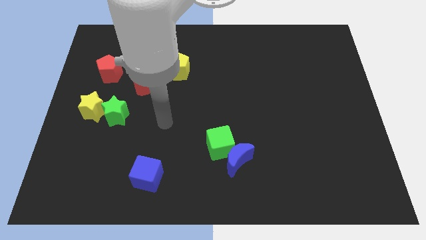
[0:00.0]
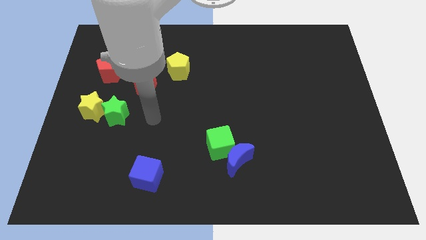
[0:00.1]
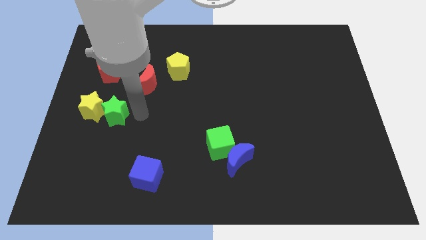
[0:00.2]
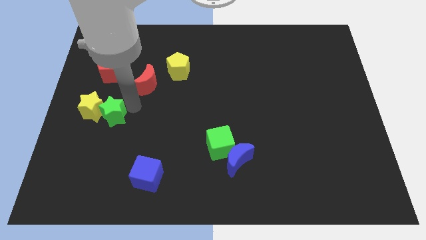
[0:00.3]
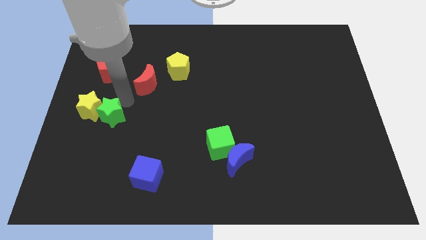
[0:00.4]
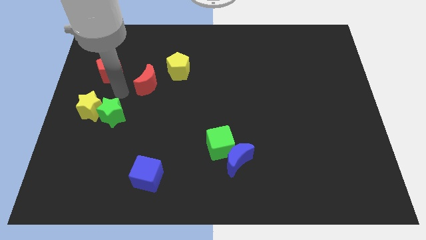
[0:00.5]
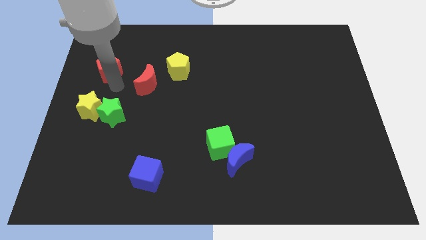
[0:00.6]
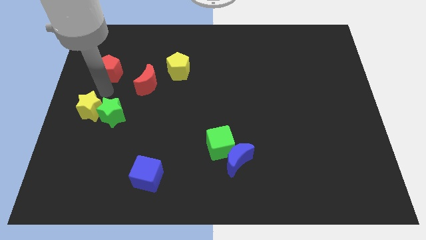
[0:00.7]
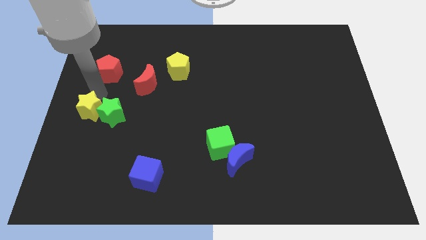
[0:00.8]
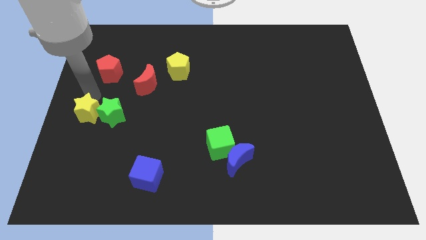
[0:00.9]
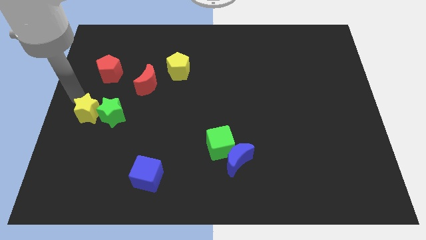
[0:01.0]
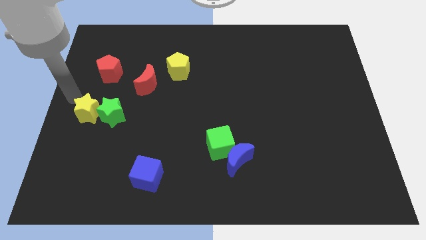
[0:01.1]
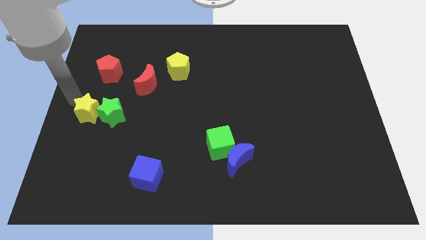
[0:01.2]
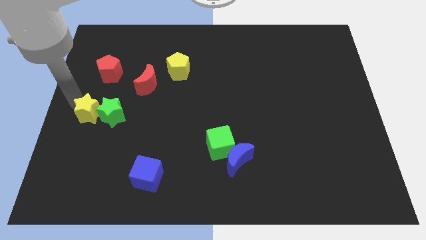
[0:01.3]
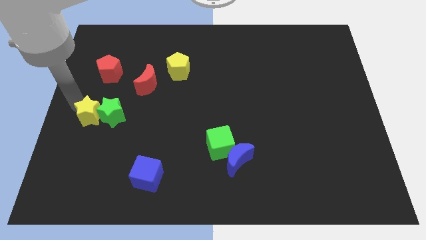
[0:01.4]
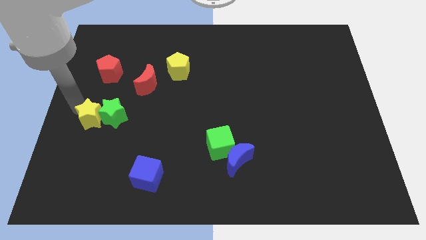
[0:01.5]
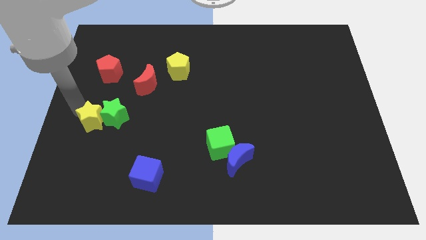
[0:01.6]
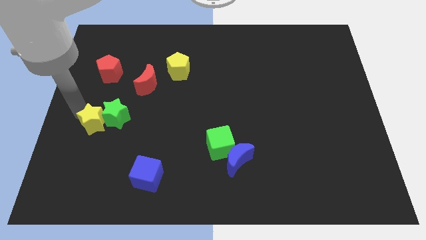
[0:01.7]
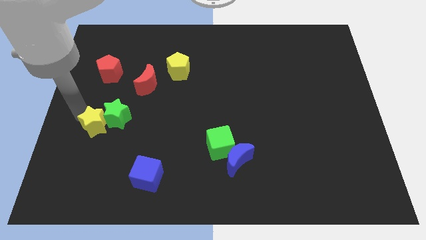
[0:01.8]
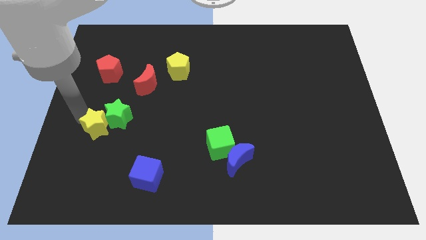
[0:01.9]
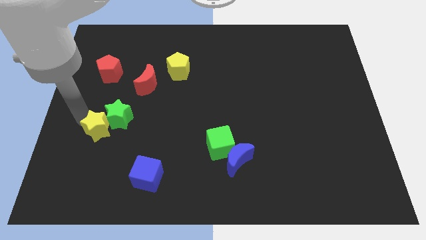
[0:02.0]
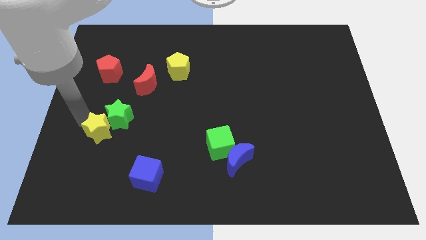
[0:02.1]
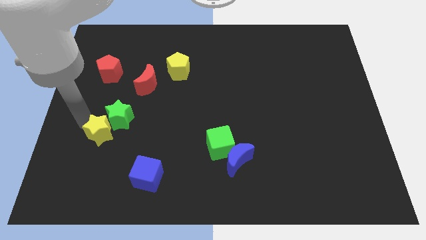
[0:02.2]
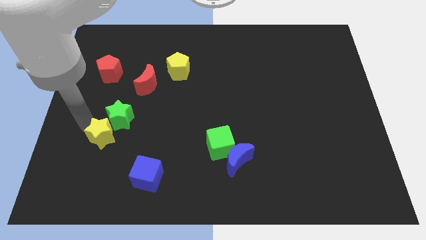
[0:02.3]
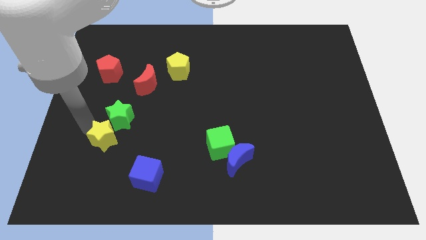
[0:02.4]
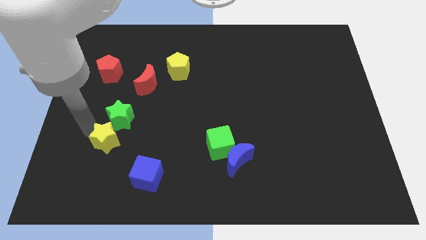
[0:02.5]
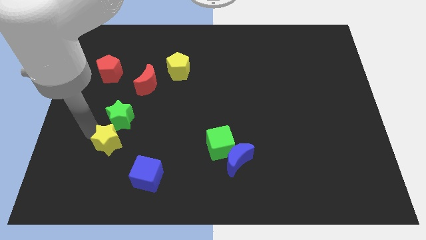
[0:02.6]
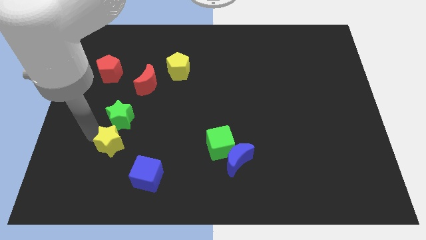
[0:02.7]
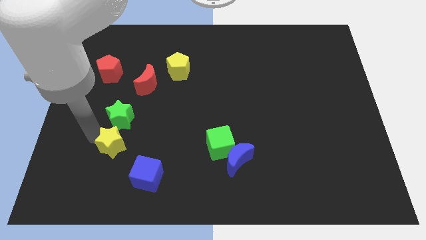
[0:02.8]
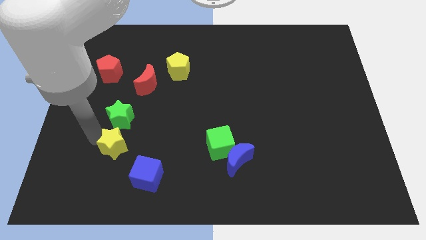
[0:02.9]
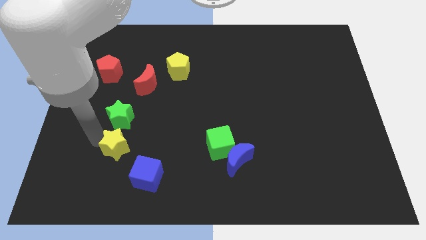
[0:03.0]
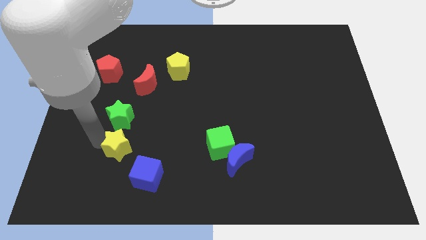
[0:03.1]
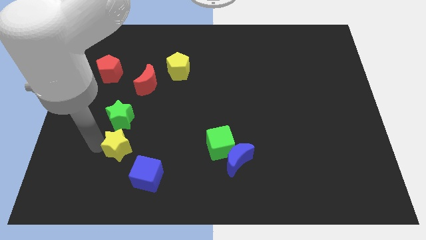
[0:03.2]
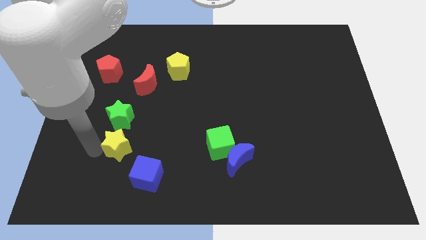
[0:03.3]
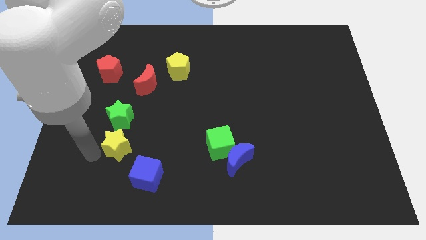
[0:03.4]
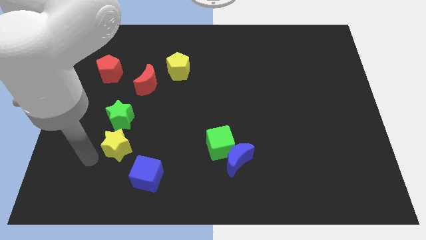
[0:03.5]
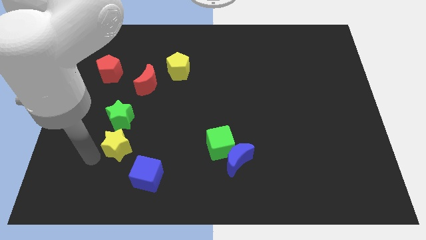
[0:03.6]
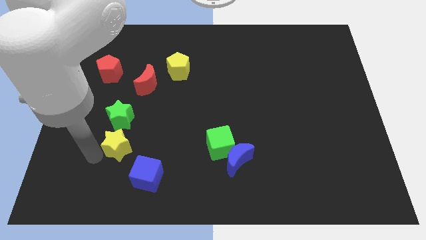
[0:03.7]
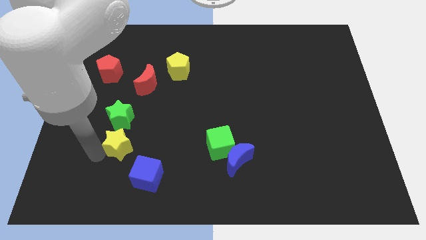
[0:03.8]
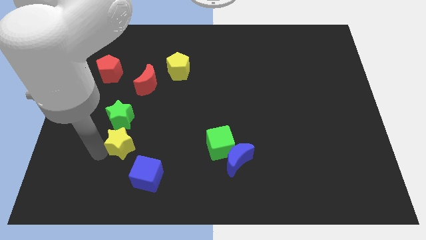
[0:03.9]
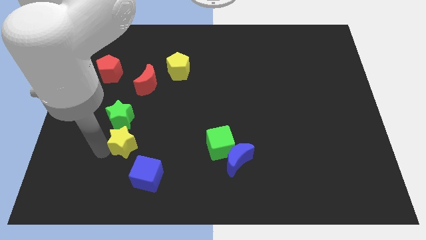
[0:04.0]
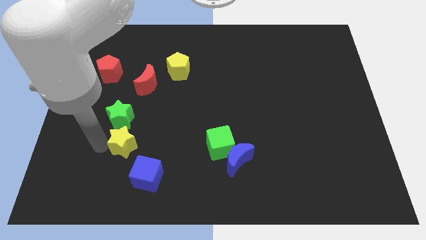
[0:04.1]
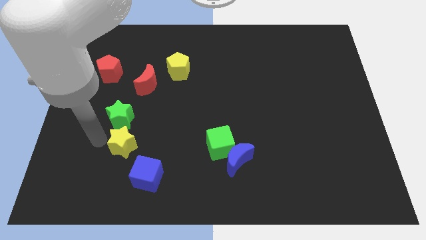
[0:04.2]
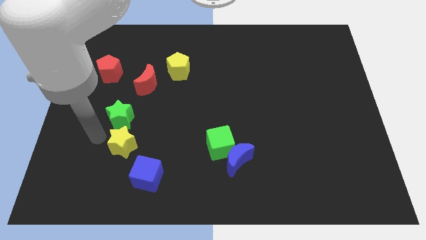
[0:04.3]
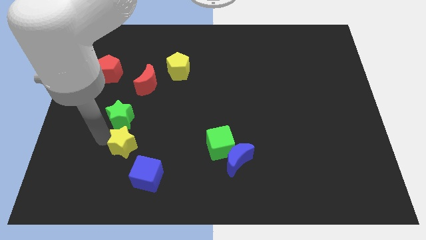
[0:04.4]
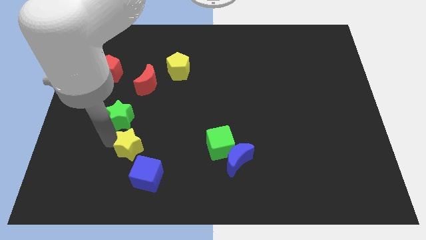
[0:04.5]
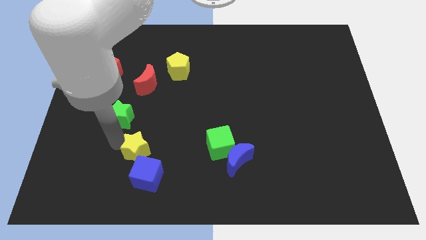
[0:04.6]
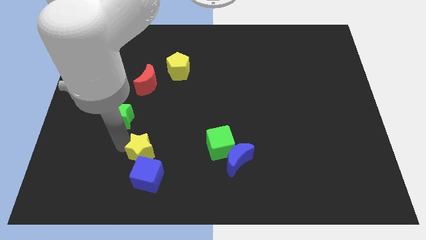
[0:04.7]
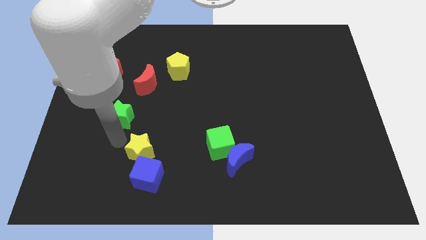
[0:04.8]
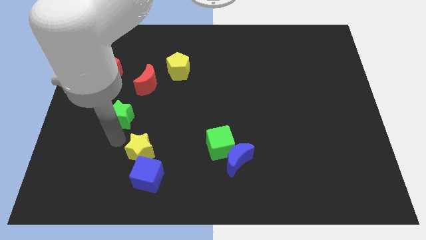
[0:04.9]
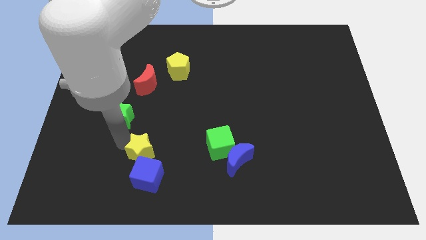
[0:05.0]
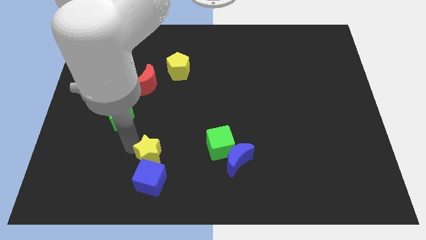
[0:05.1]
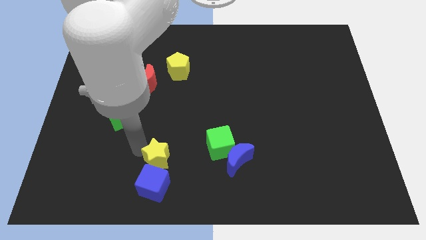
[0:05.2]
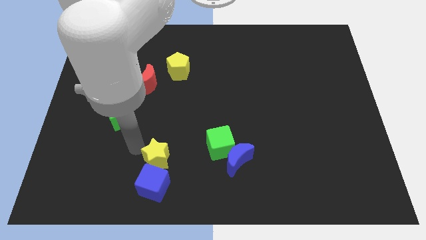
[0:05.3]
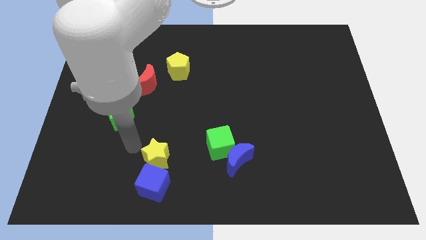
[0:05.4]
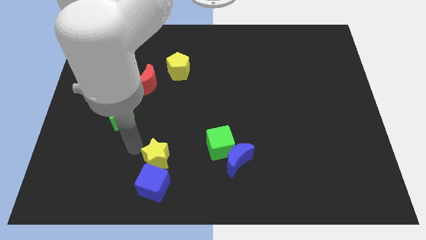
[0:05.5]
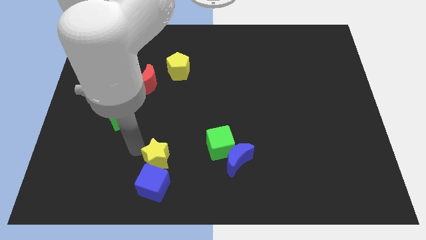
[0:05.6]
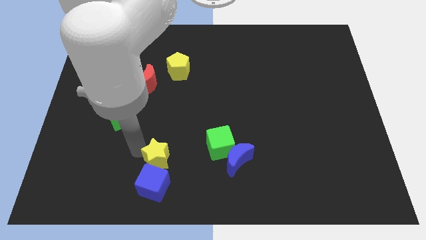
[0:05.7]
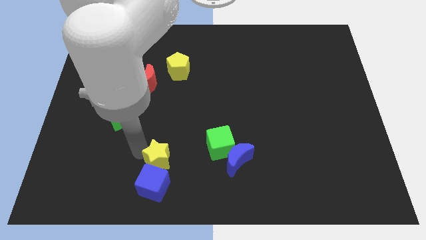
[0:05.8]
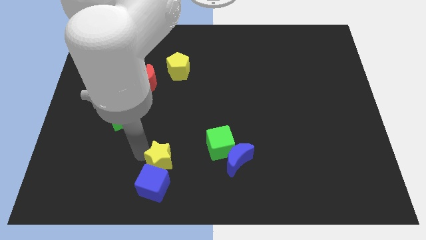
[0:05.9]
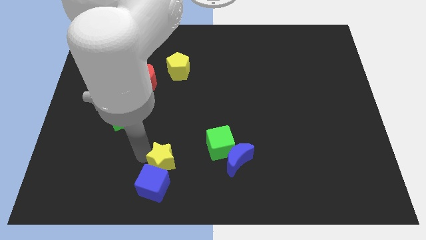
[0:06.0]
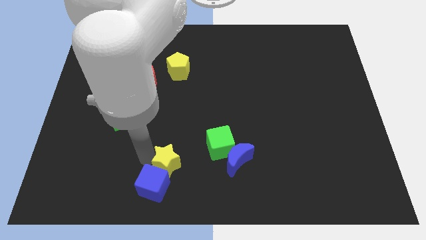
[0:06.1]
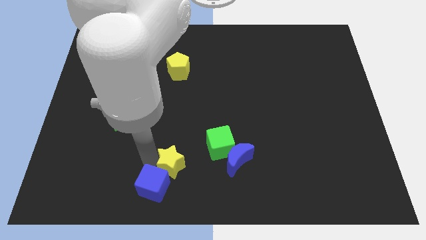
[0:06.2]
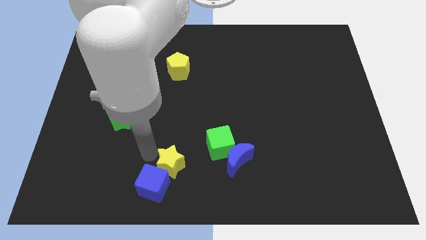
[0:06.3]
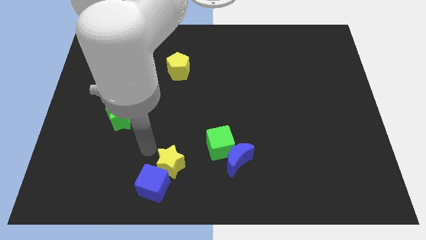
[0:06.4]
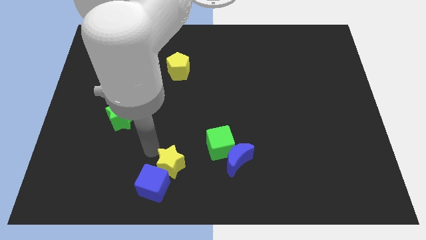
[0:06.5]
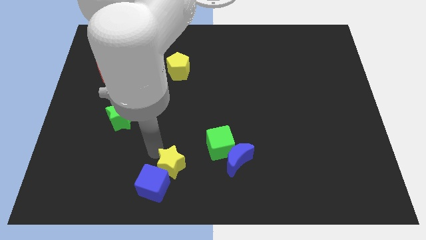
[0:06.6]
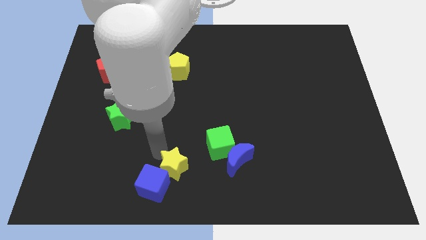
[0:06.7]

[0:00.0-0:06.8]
put the yellow star to the right side of the blue cube
